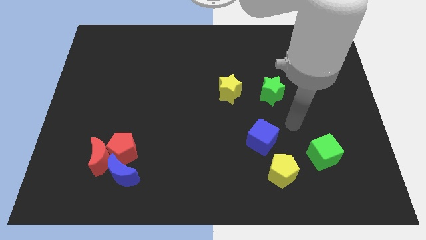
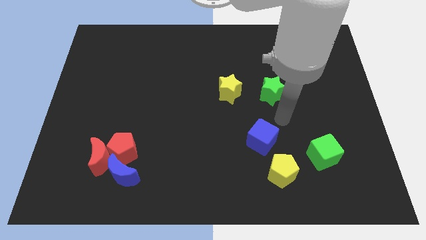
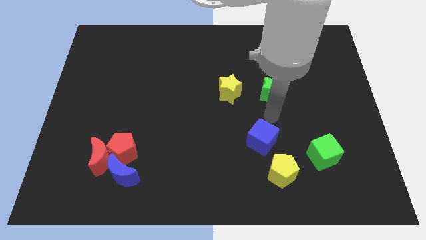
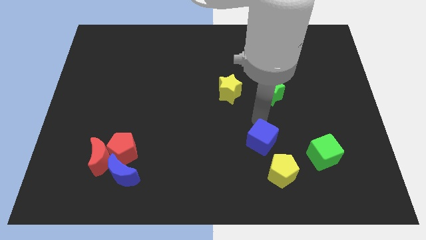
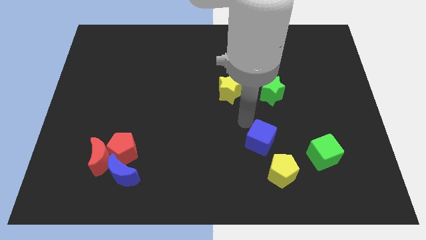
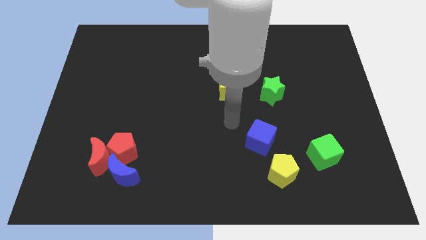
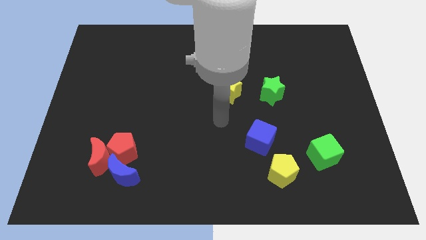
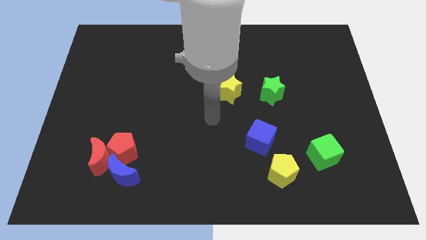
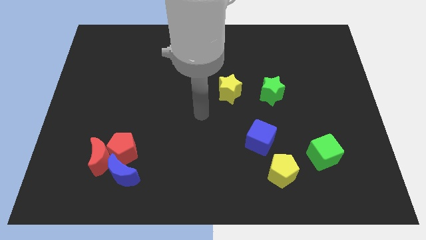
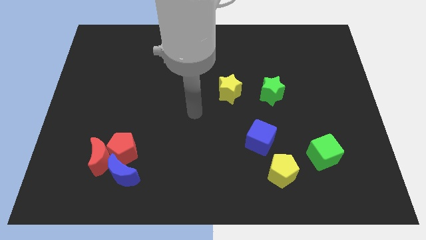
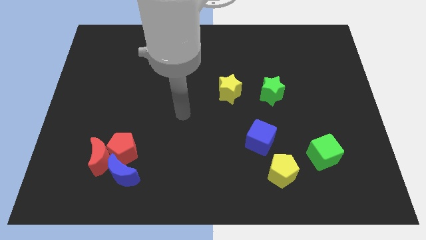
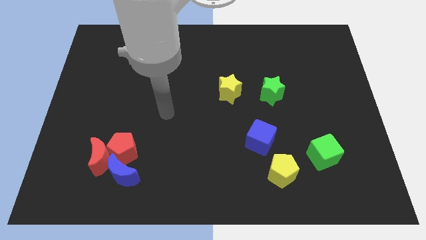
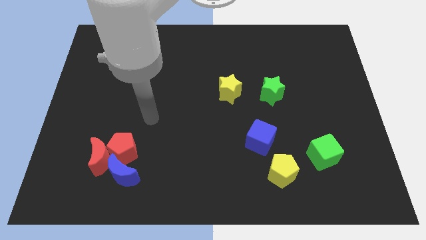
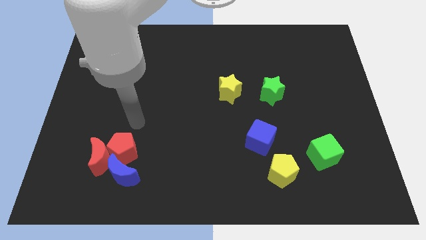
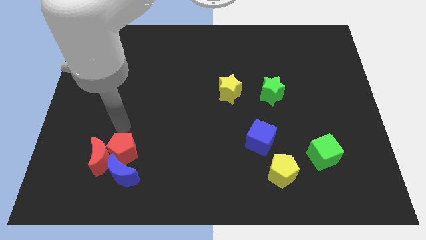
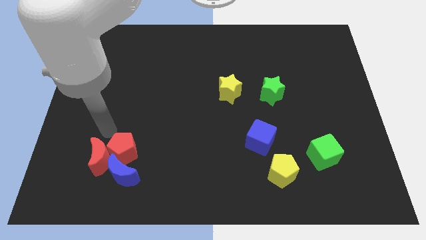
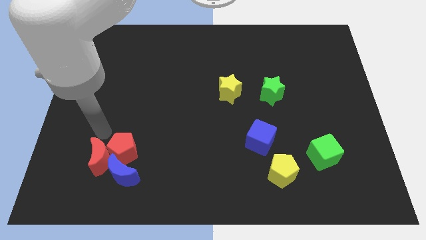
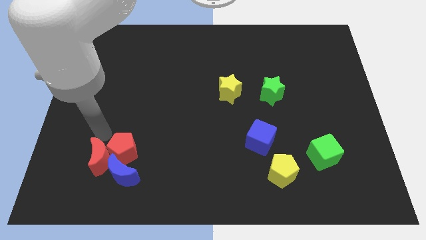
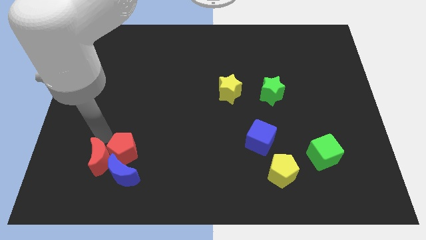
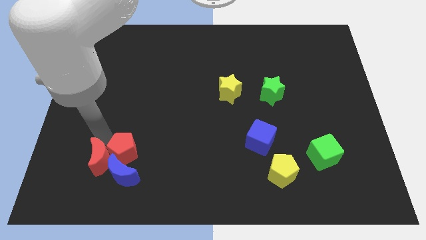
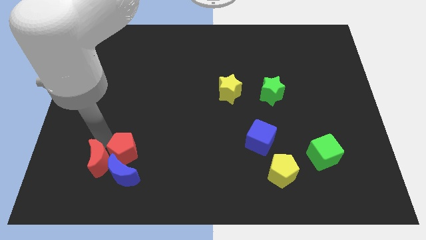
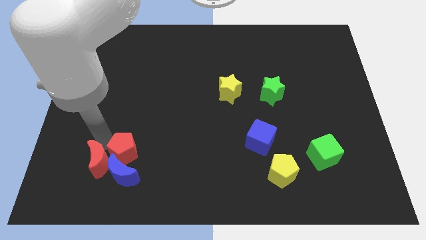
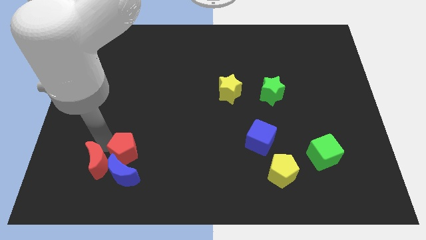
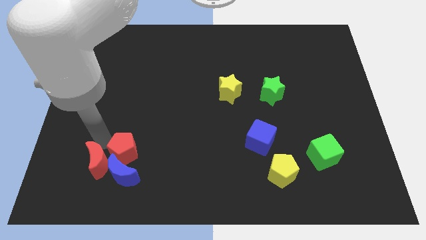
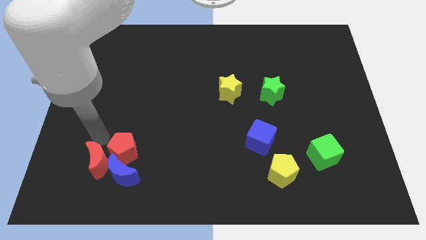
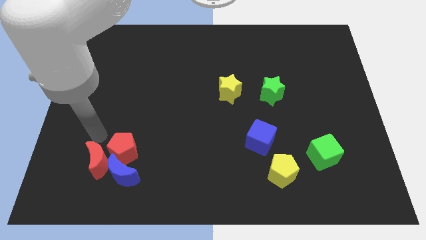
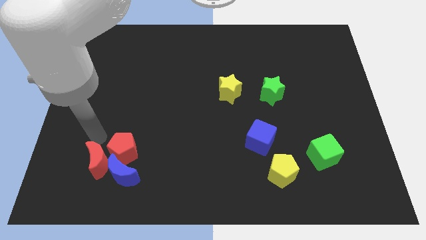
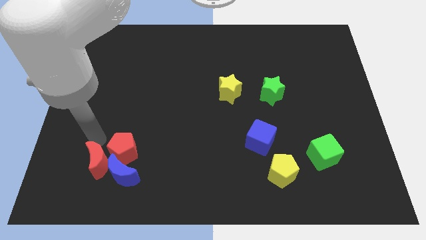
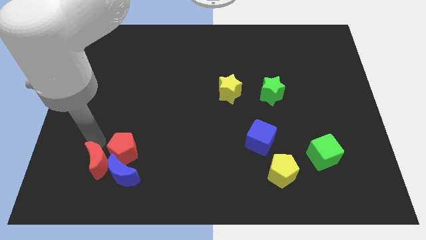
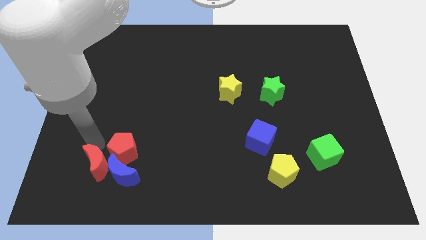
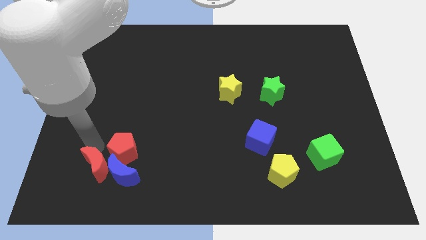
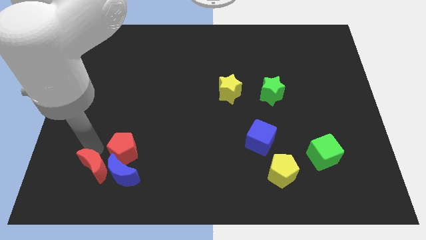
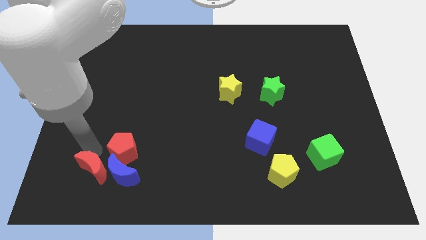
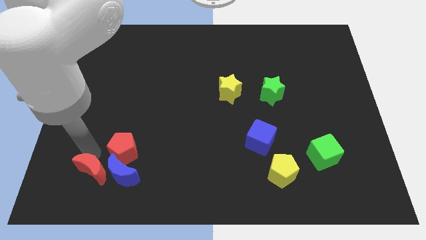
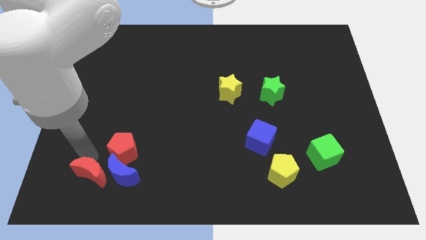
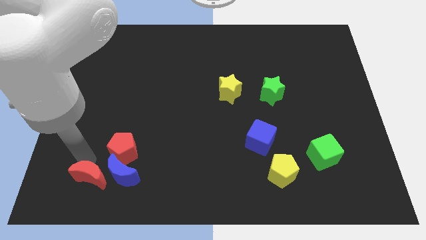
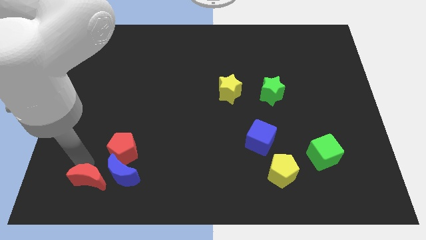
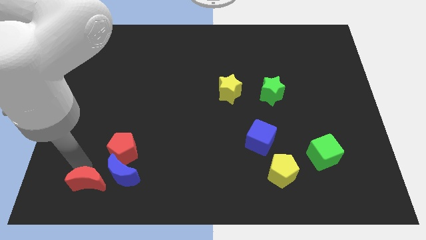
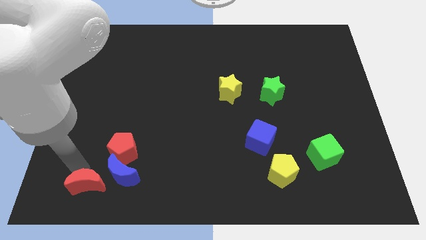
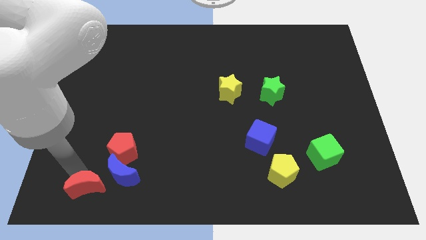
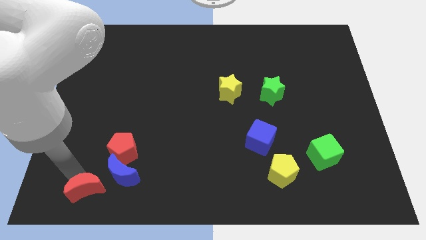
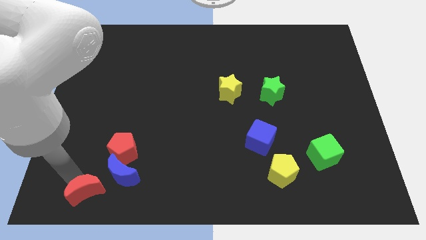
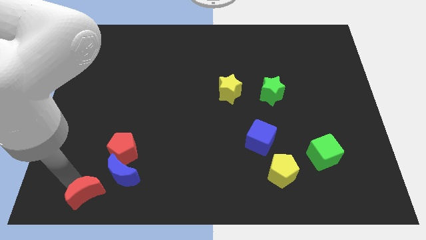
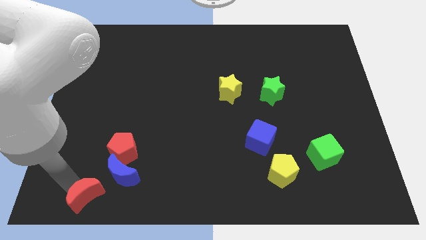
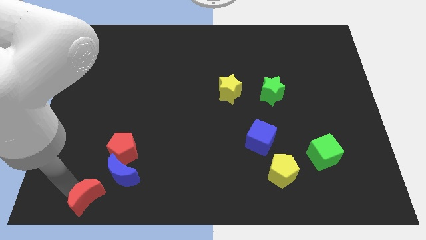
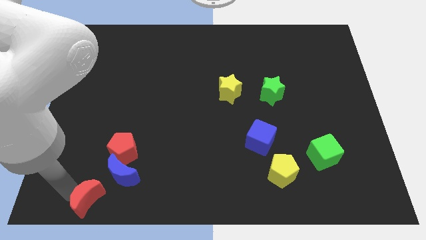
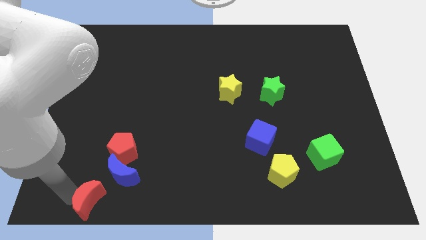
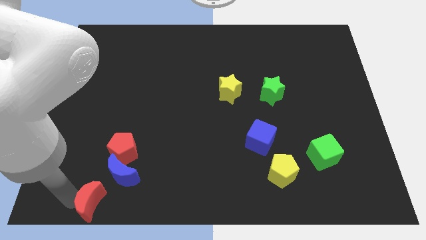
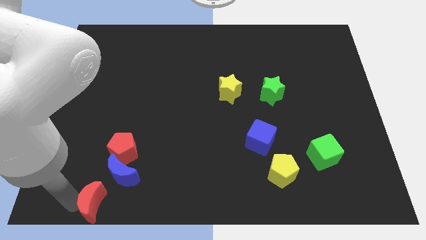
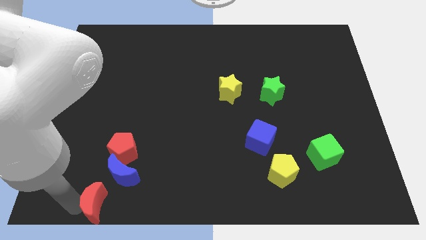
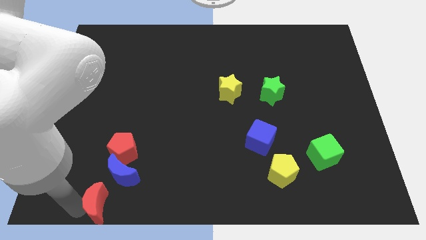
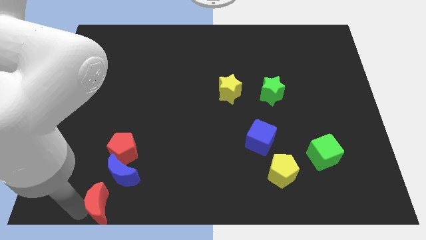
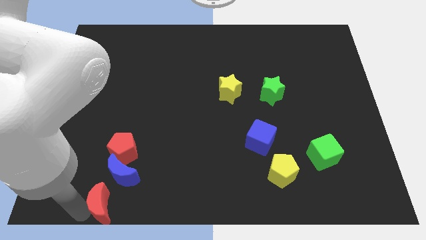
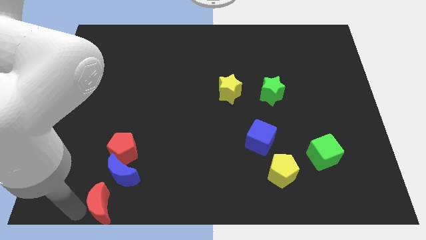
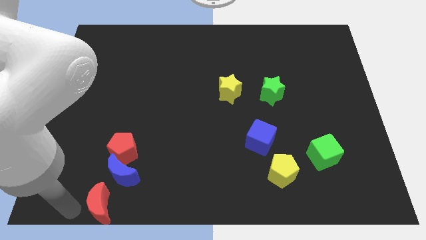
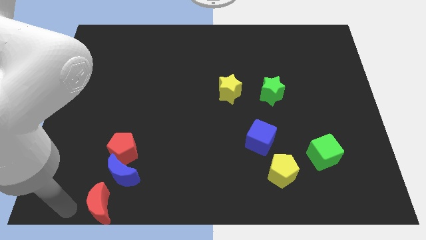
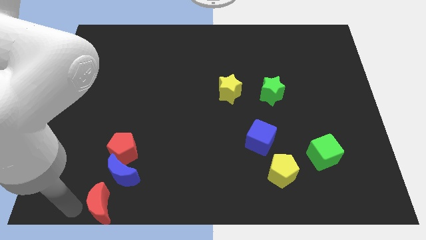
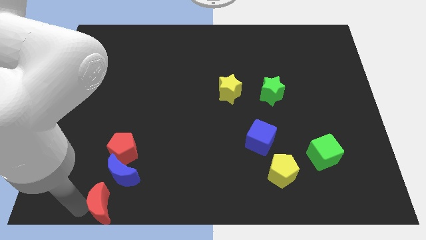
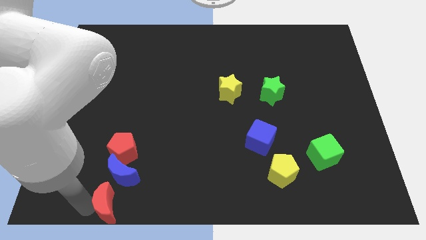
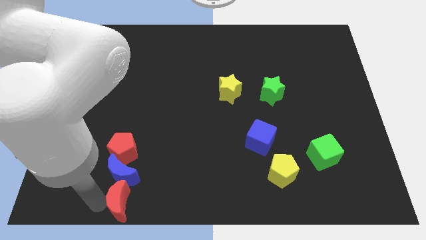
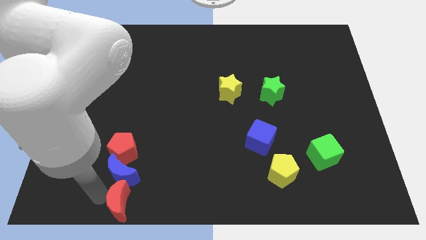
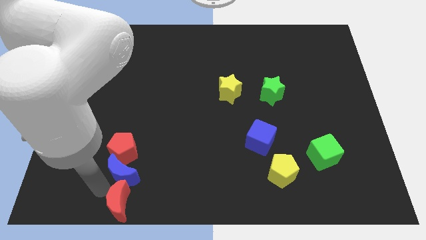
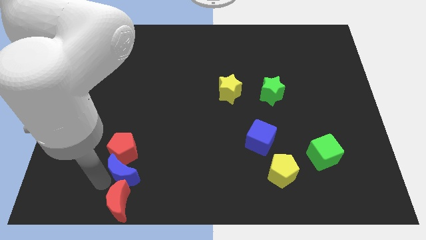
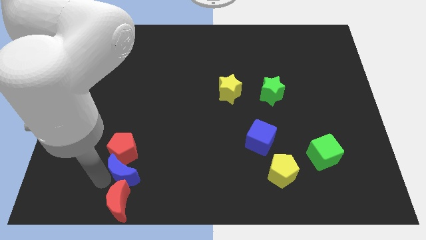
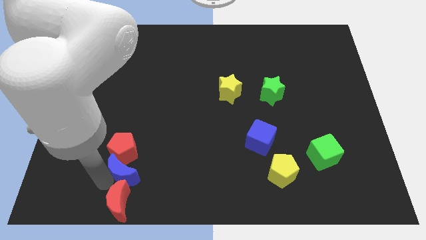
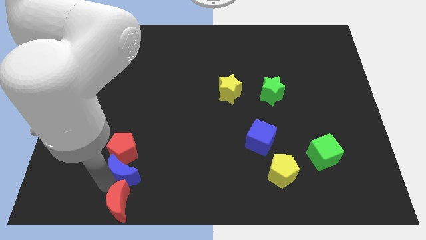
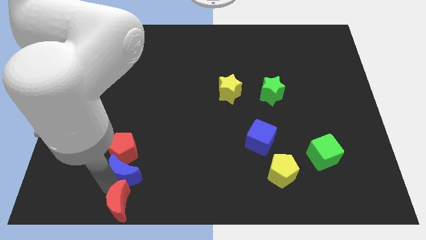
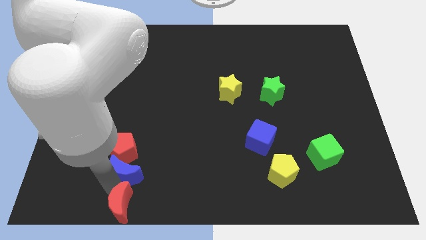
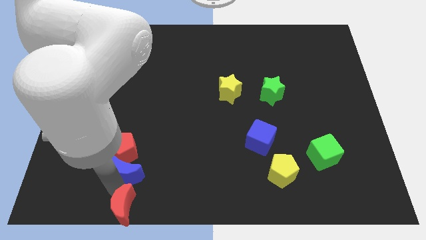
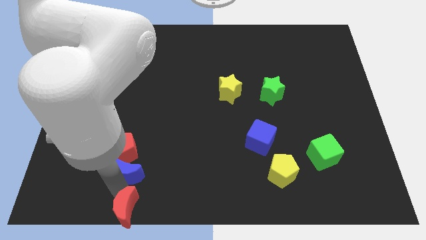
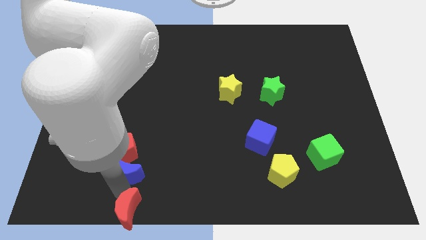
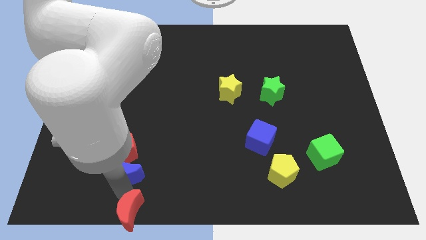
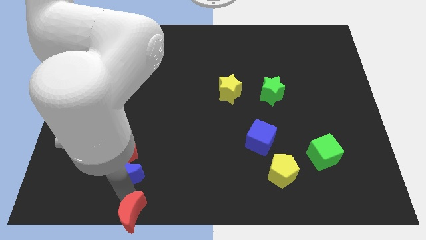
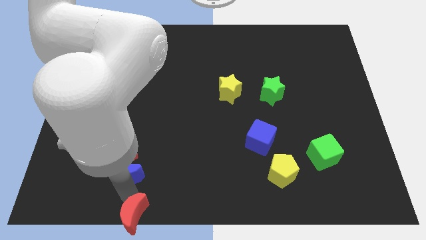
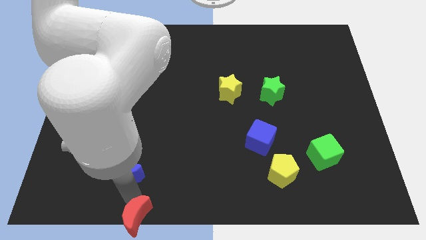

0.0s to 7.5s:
push the red moon to the bottom side
